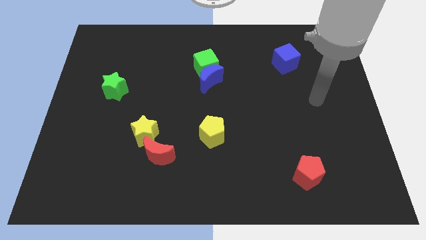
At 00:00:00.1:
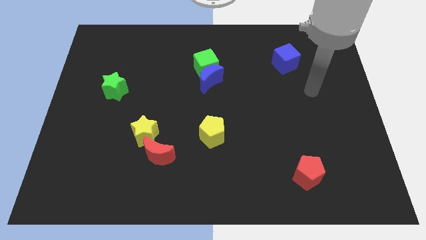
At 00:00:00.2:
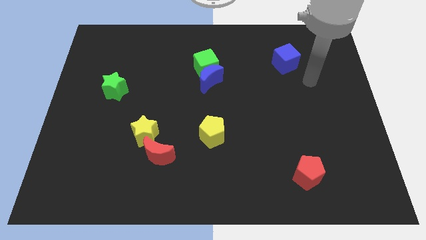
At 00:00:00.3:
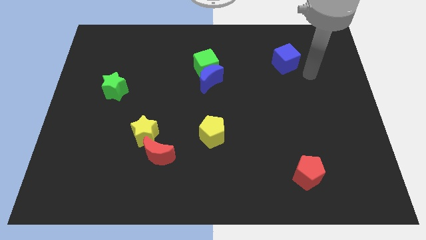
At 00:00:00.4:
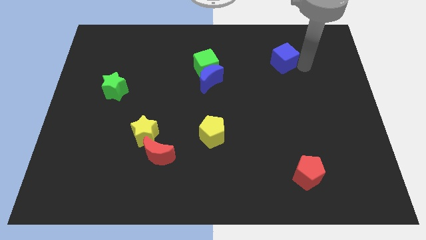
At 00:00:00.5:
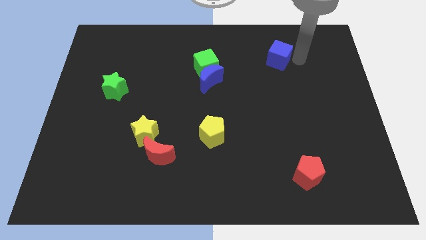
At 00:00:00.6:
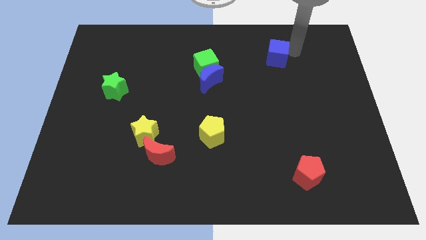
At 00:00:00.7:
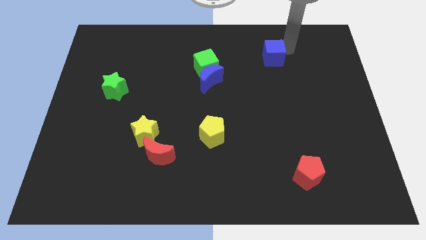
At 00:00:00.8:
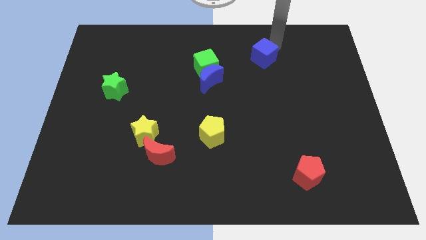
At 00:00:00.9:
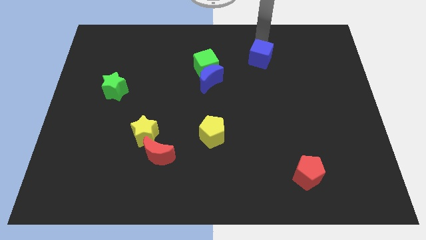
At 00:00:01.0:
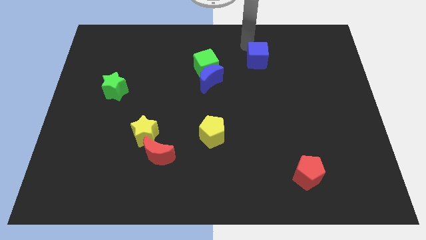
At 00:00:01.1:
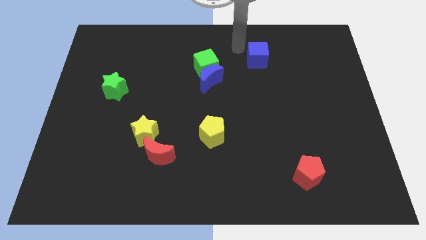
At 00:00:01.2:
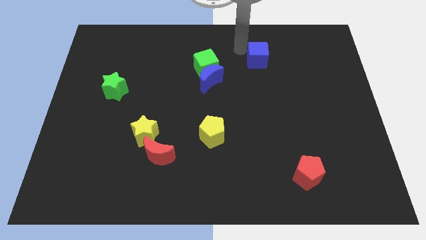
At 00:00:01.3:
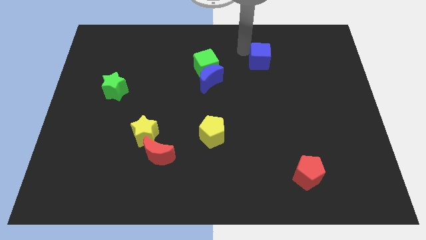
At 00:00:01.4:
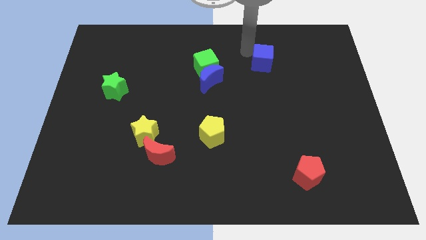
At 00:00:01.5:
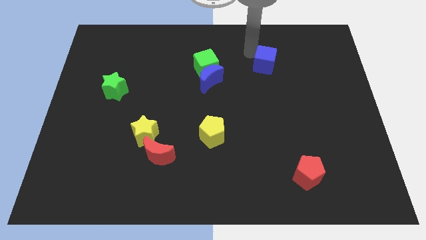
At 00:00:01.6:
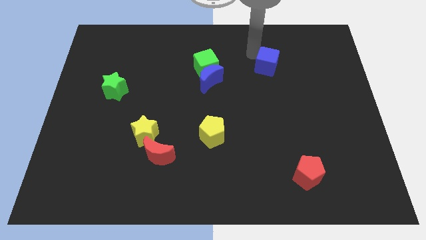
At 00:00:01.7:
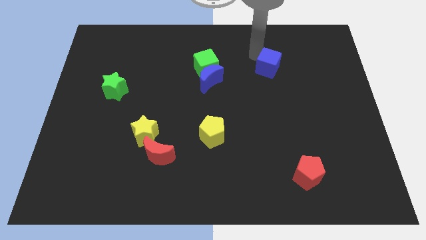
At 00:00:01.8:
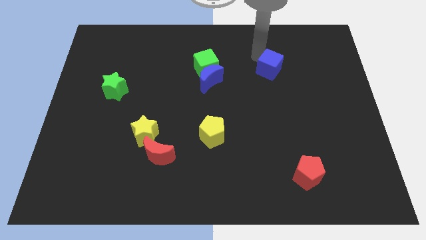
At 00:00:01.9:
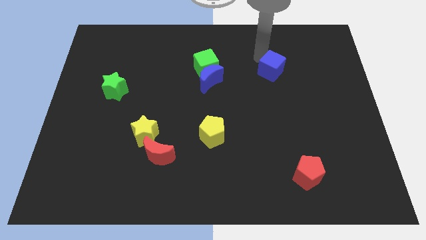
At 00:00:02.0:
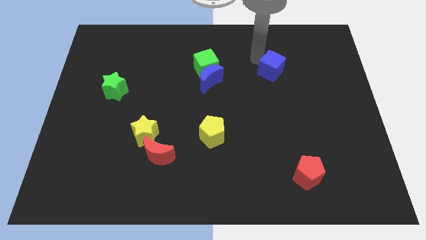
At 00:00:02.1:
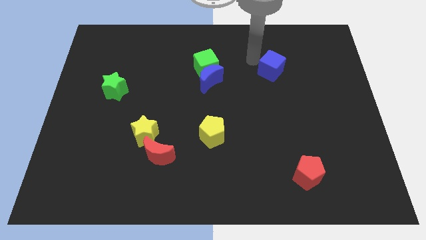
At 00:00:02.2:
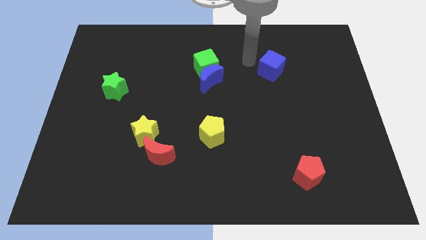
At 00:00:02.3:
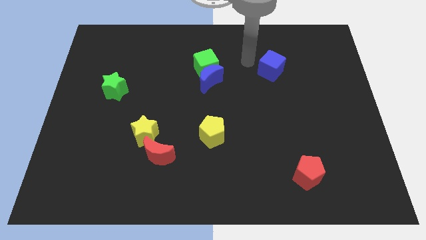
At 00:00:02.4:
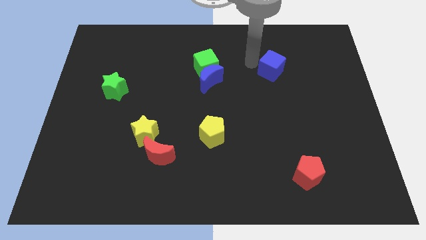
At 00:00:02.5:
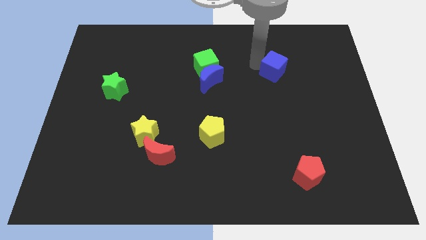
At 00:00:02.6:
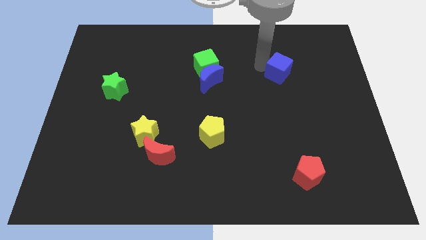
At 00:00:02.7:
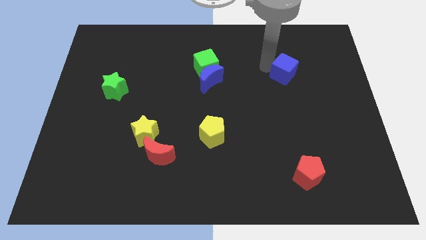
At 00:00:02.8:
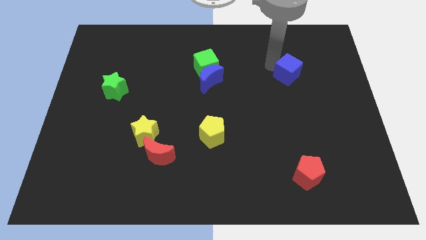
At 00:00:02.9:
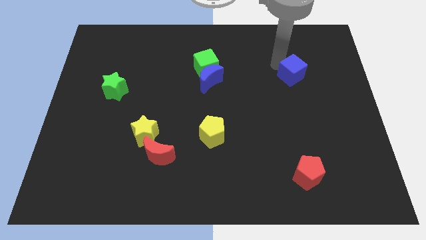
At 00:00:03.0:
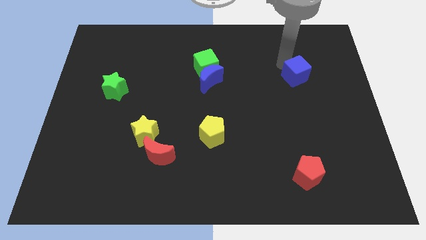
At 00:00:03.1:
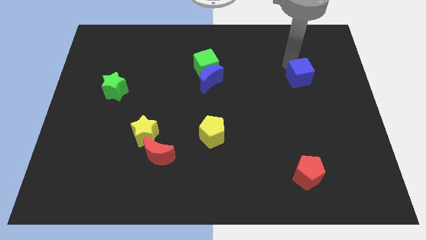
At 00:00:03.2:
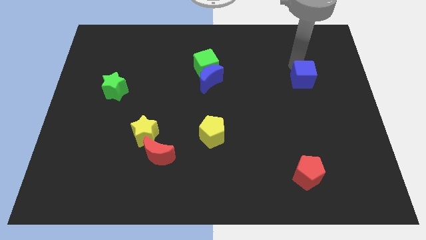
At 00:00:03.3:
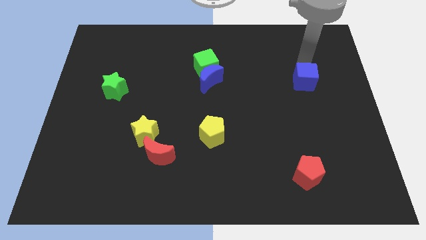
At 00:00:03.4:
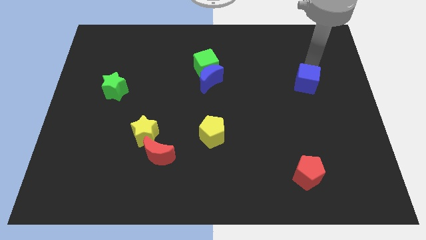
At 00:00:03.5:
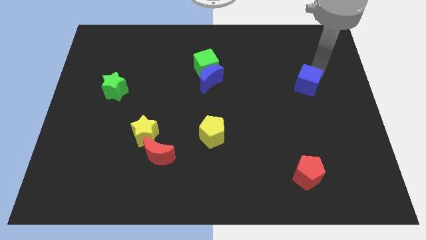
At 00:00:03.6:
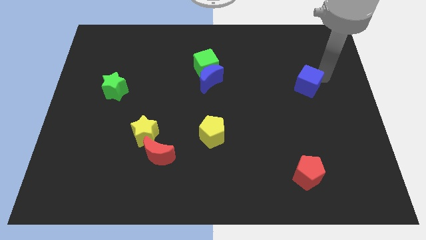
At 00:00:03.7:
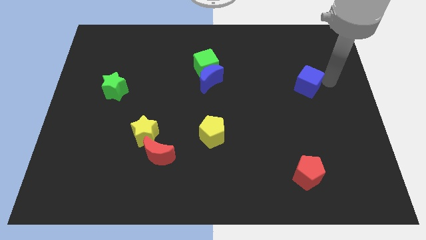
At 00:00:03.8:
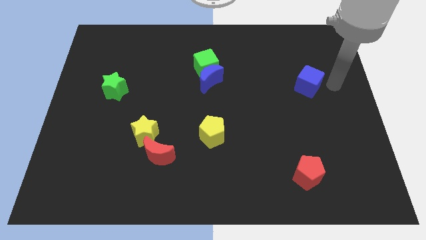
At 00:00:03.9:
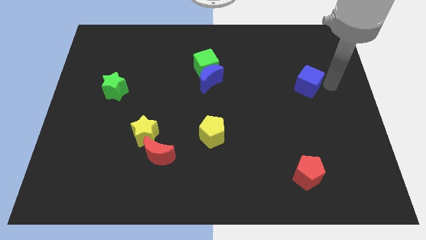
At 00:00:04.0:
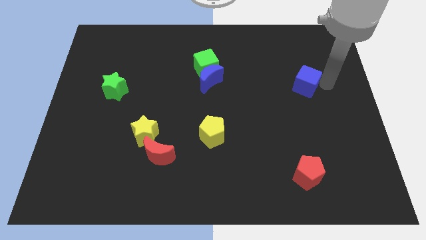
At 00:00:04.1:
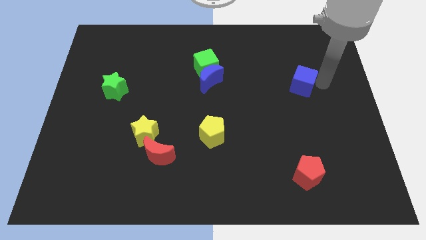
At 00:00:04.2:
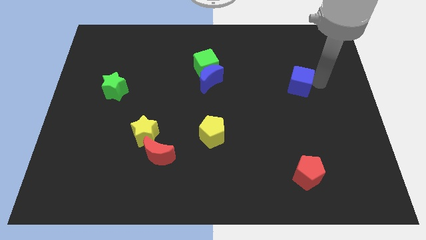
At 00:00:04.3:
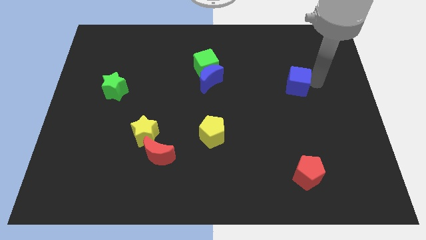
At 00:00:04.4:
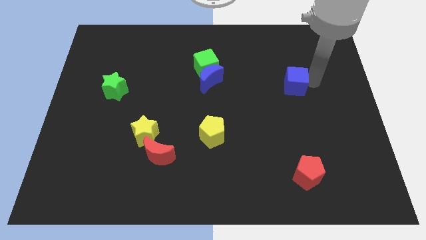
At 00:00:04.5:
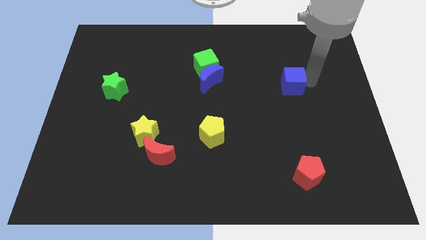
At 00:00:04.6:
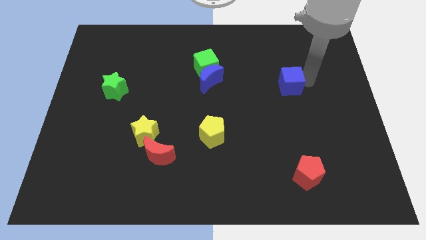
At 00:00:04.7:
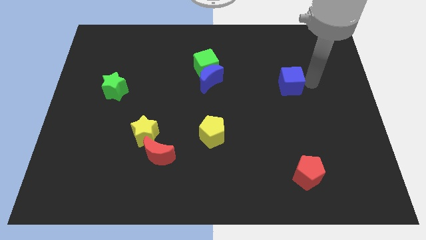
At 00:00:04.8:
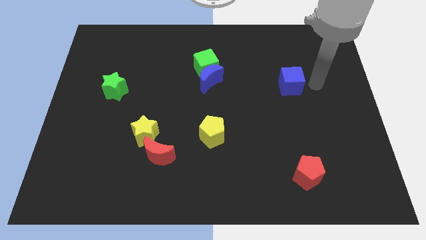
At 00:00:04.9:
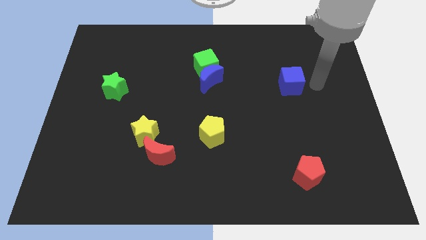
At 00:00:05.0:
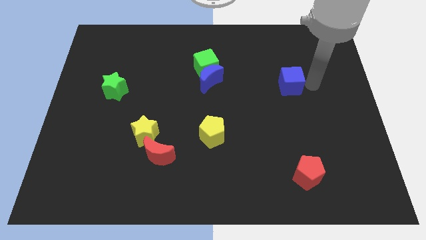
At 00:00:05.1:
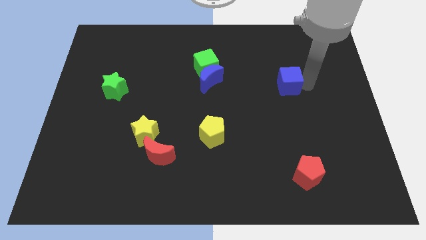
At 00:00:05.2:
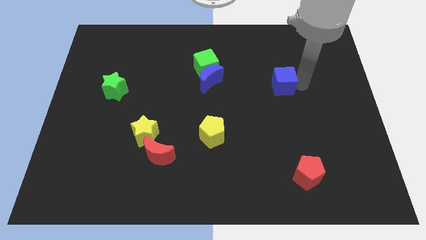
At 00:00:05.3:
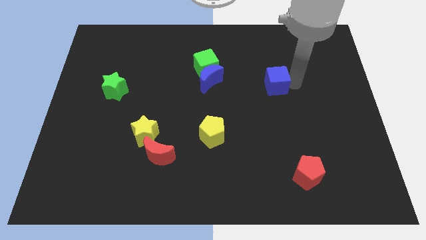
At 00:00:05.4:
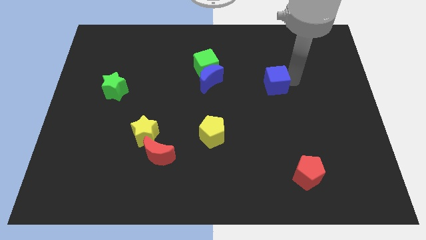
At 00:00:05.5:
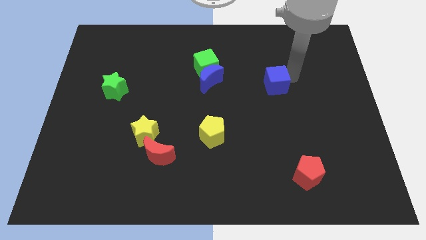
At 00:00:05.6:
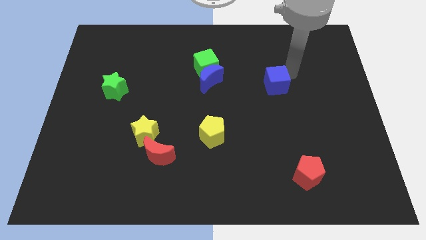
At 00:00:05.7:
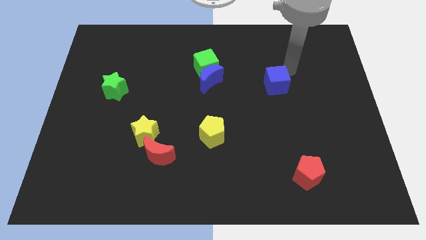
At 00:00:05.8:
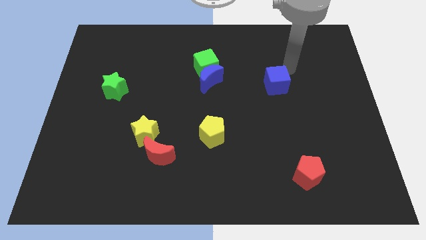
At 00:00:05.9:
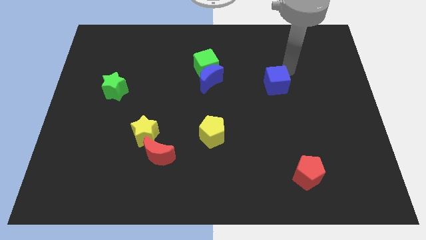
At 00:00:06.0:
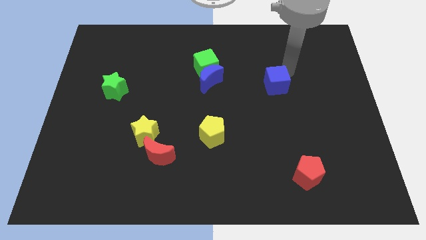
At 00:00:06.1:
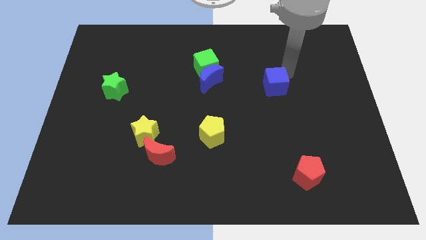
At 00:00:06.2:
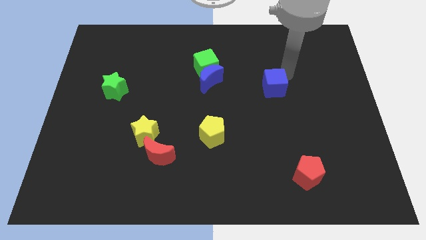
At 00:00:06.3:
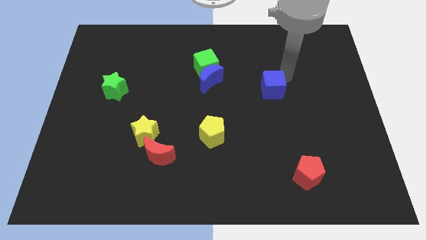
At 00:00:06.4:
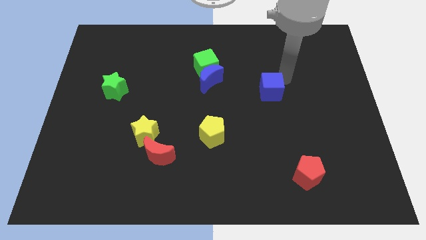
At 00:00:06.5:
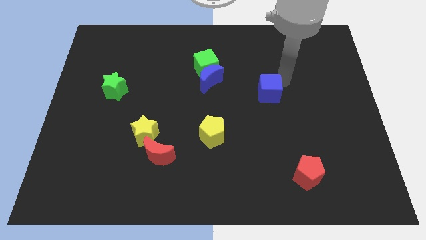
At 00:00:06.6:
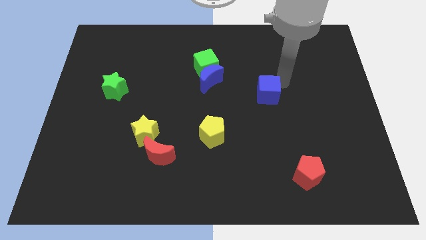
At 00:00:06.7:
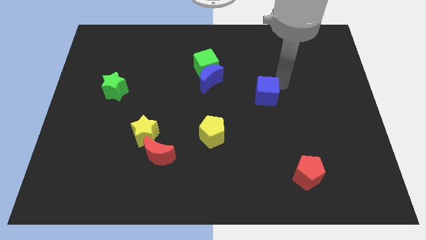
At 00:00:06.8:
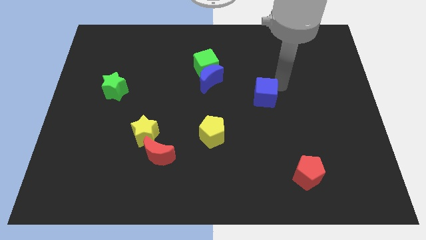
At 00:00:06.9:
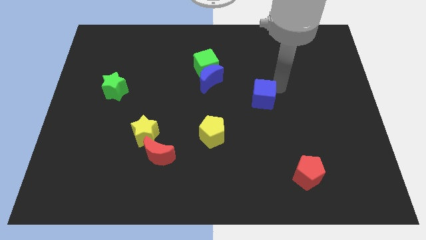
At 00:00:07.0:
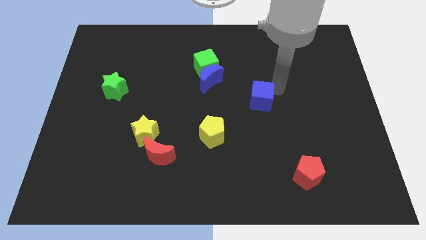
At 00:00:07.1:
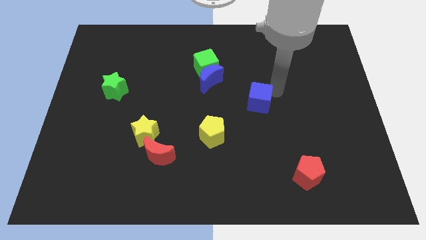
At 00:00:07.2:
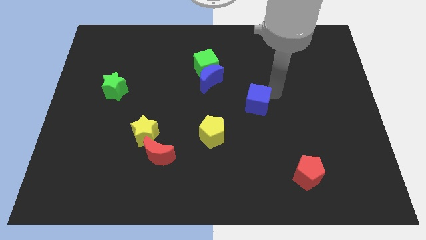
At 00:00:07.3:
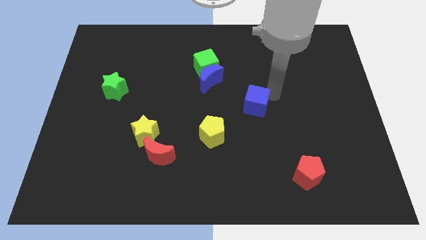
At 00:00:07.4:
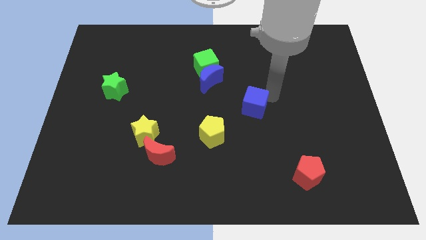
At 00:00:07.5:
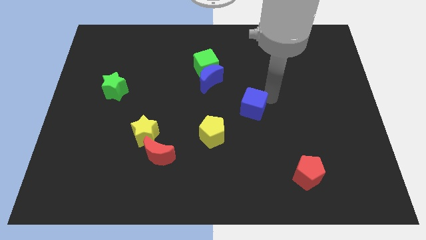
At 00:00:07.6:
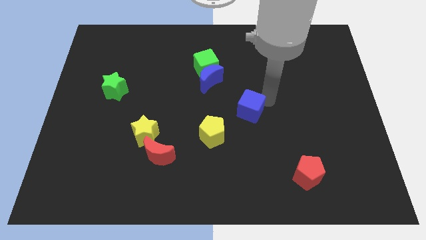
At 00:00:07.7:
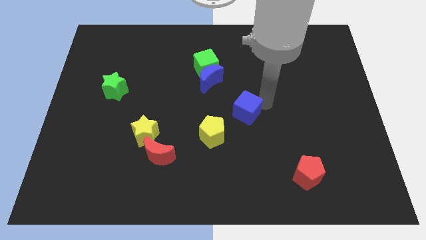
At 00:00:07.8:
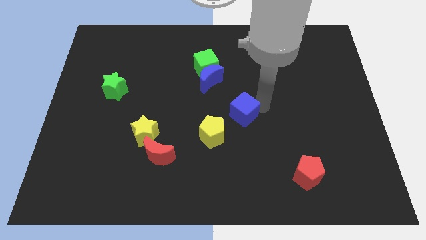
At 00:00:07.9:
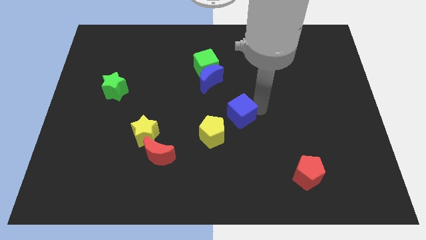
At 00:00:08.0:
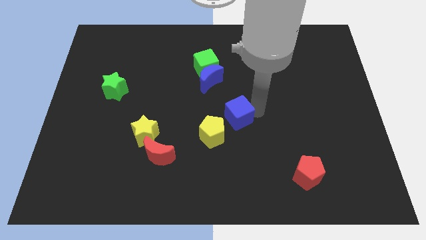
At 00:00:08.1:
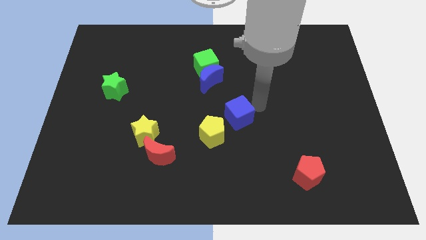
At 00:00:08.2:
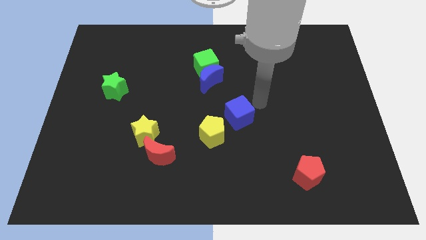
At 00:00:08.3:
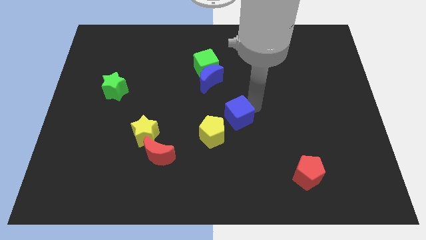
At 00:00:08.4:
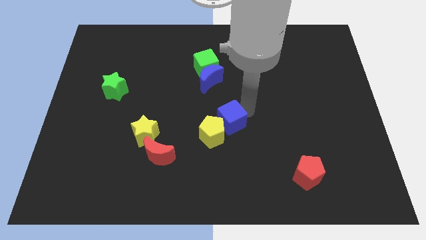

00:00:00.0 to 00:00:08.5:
put the blue cube to the yellow pentagon
